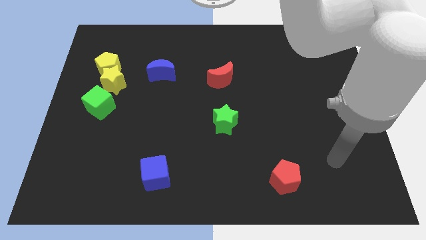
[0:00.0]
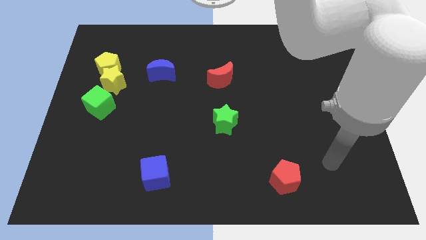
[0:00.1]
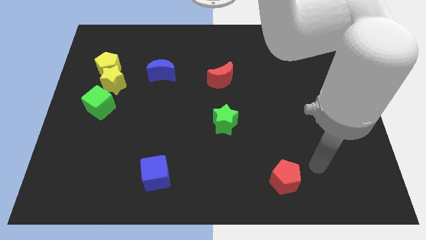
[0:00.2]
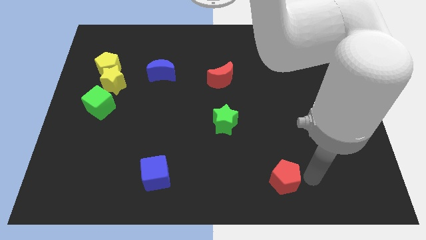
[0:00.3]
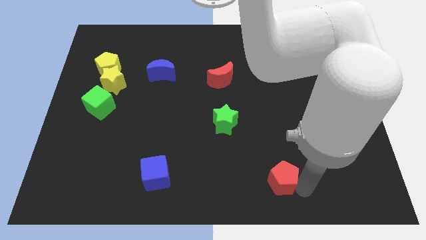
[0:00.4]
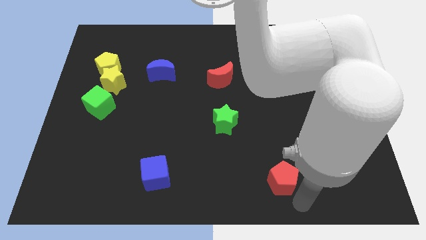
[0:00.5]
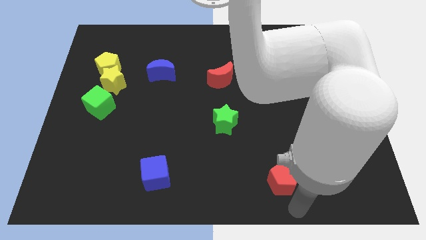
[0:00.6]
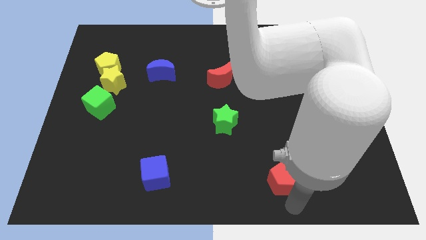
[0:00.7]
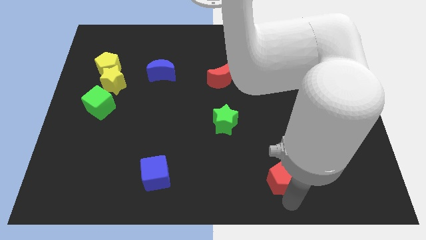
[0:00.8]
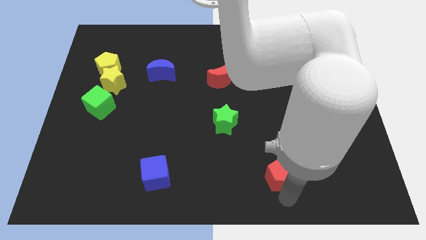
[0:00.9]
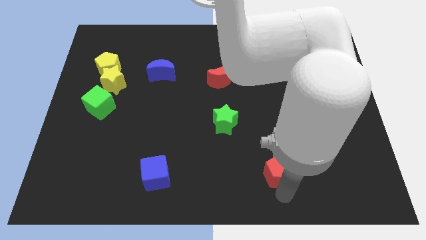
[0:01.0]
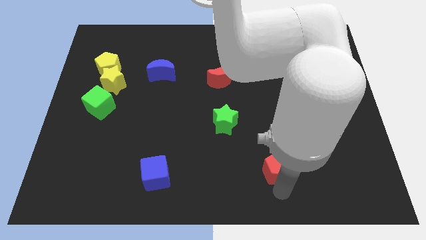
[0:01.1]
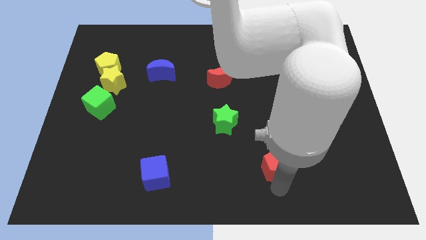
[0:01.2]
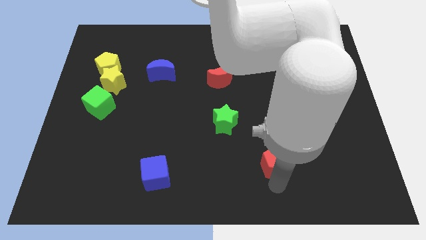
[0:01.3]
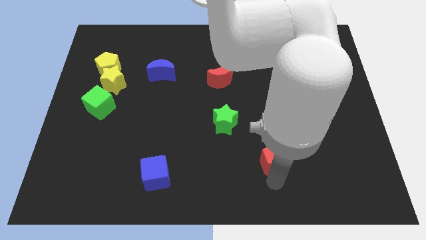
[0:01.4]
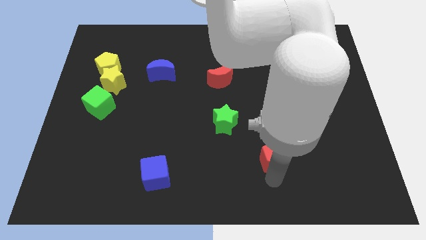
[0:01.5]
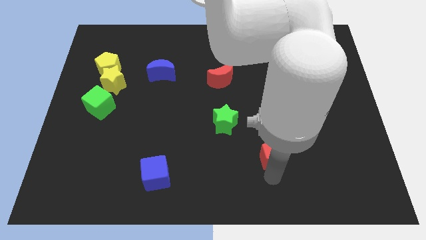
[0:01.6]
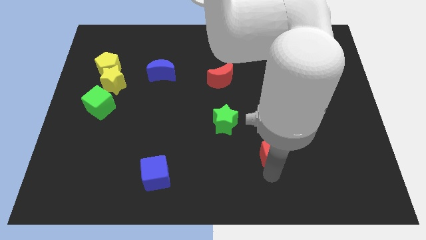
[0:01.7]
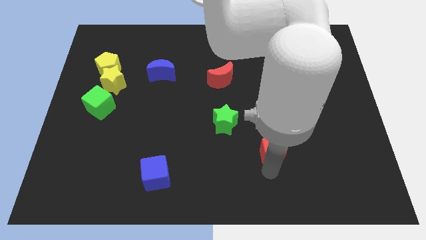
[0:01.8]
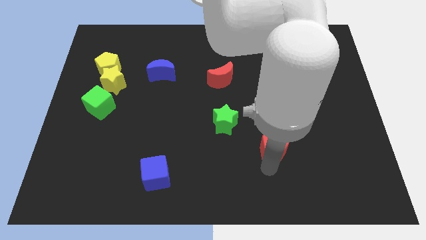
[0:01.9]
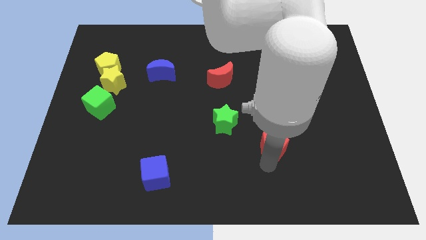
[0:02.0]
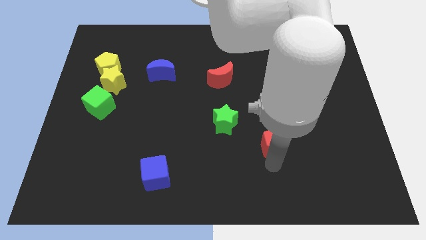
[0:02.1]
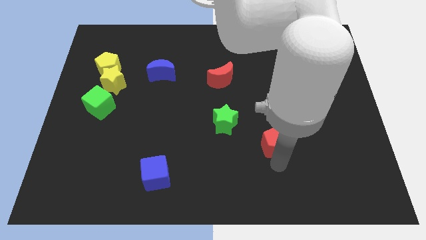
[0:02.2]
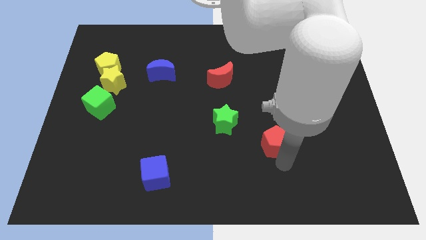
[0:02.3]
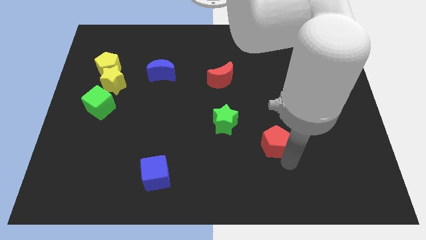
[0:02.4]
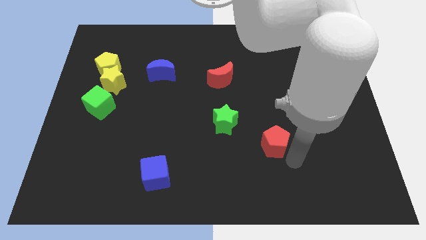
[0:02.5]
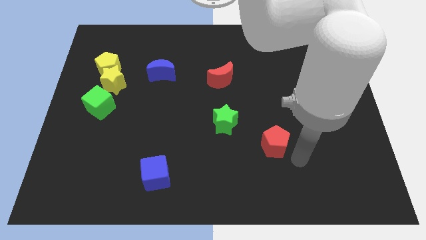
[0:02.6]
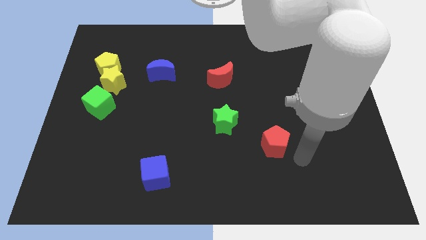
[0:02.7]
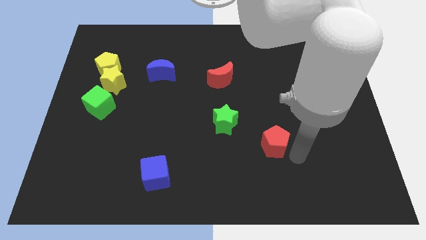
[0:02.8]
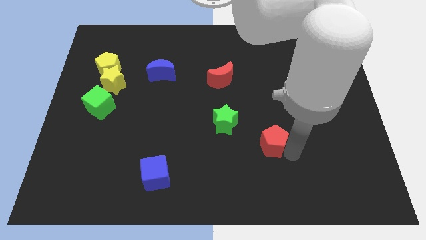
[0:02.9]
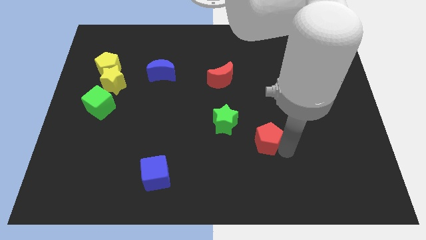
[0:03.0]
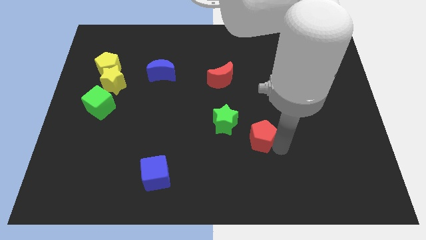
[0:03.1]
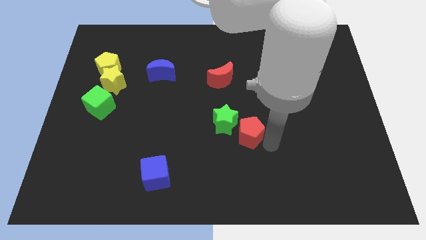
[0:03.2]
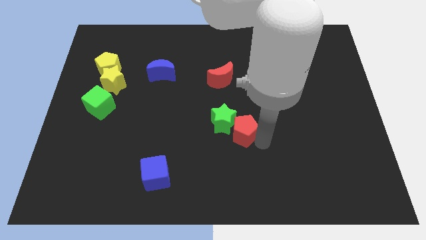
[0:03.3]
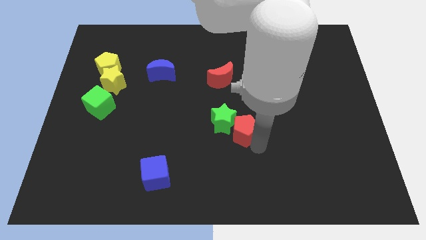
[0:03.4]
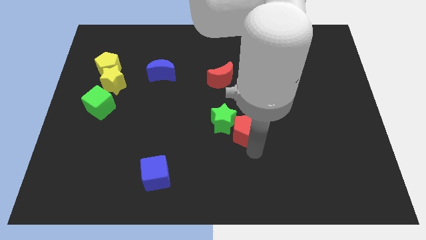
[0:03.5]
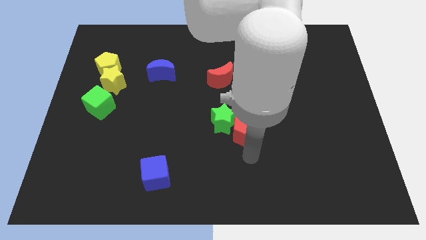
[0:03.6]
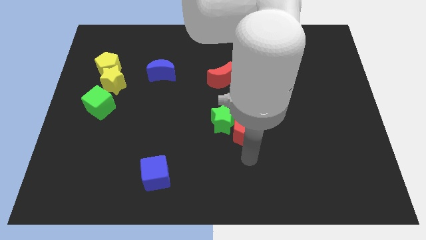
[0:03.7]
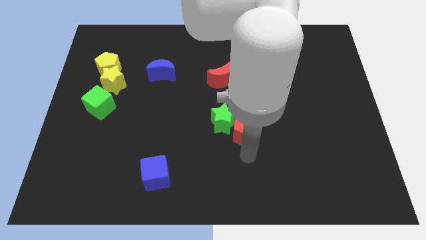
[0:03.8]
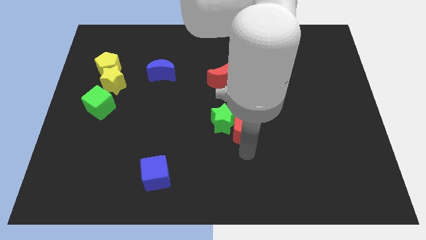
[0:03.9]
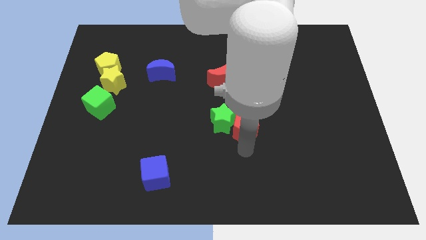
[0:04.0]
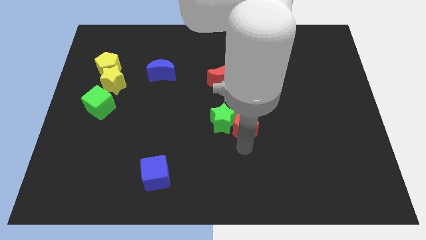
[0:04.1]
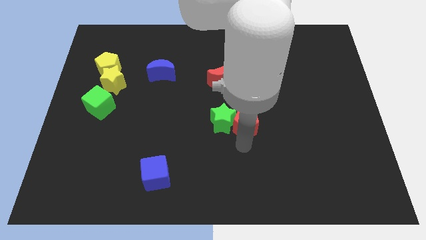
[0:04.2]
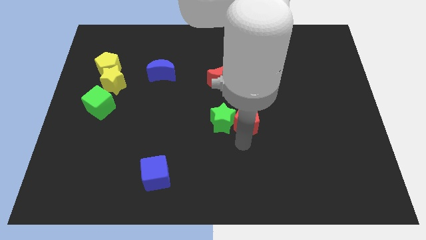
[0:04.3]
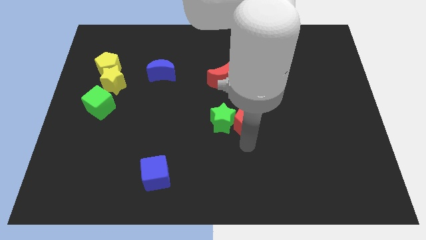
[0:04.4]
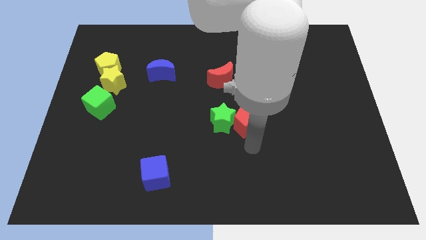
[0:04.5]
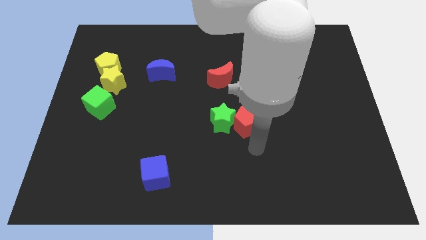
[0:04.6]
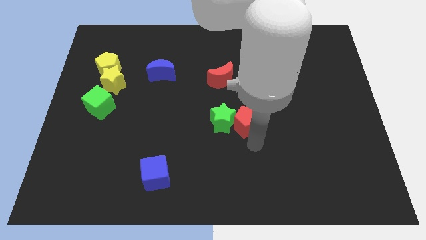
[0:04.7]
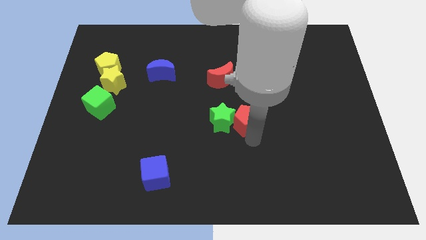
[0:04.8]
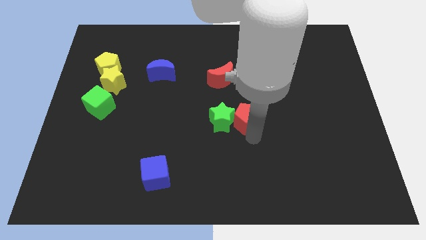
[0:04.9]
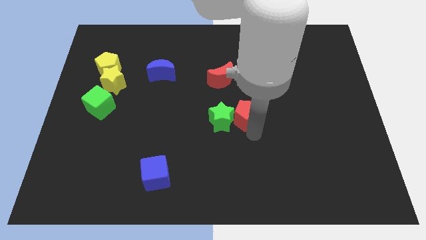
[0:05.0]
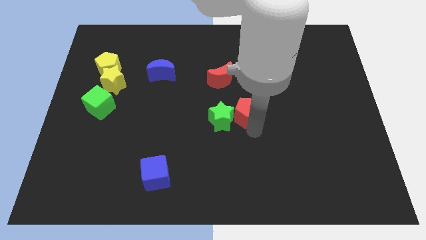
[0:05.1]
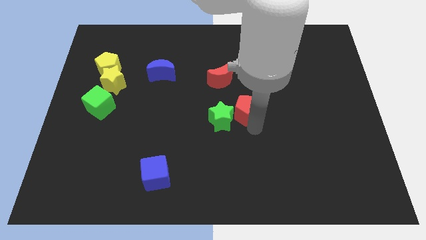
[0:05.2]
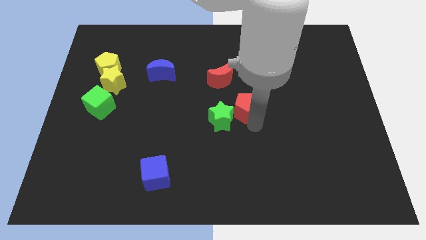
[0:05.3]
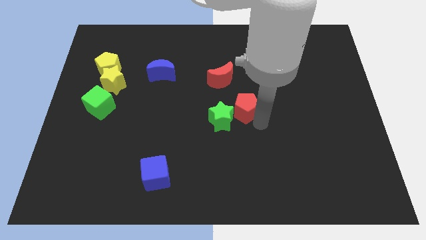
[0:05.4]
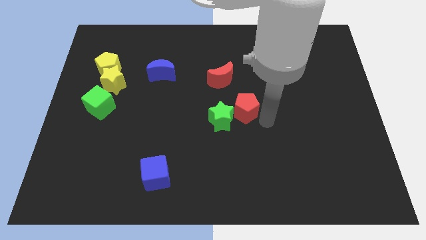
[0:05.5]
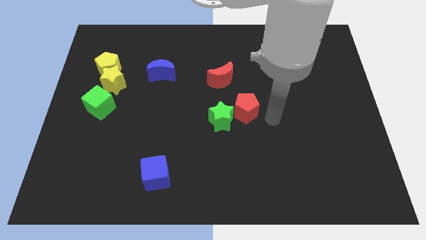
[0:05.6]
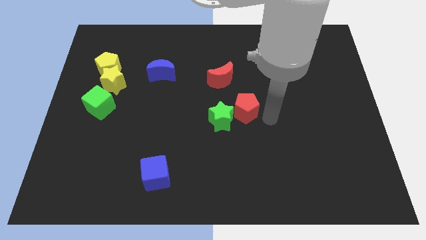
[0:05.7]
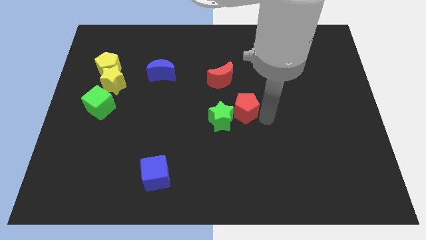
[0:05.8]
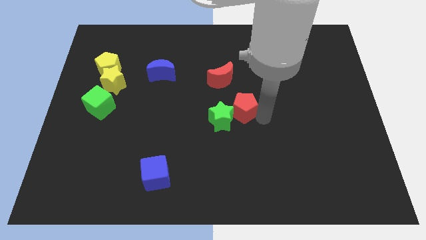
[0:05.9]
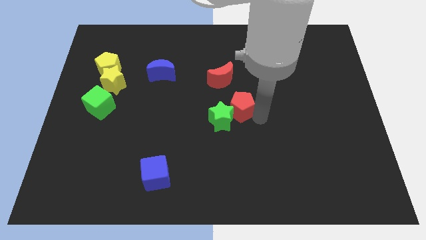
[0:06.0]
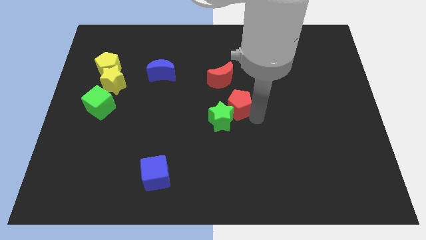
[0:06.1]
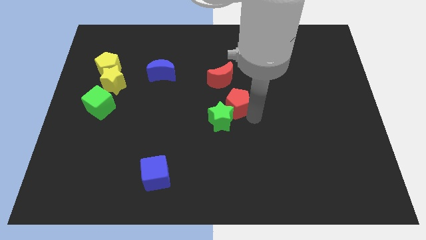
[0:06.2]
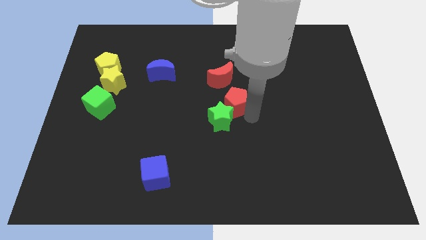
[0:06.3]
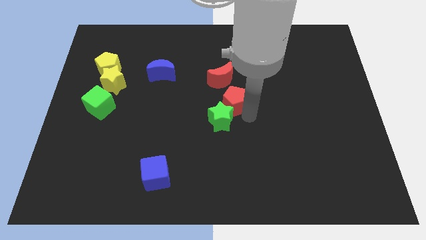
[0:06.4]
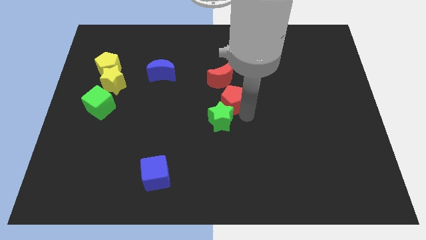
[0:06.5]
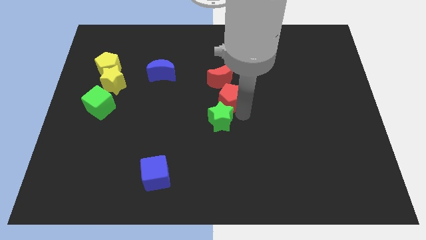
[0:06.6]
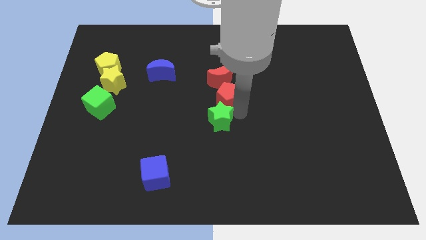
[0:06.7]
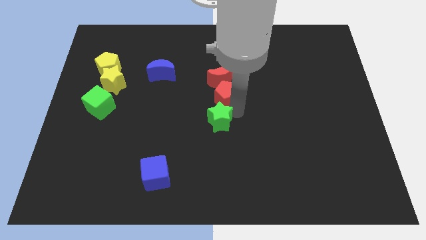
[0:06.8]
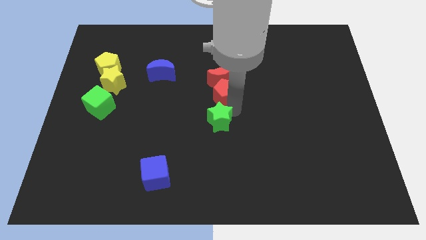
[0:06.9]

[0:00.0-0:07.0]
move the red pentagon to the bottom left side of the red moon
